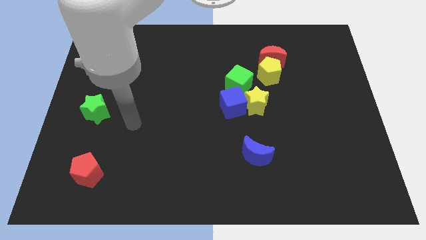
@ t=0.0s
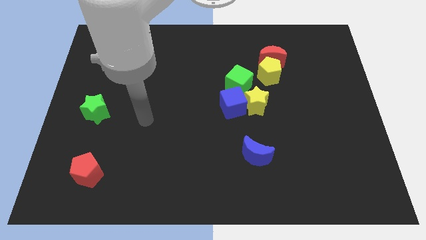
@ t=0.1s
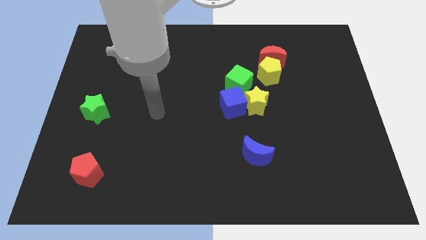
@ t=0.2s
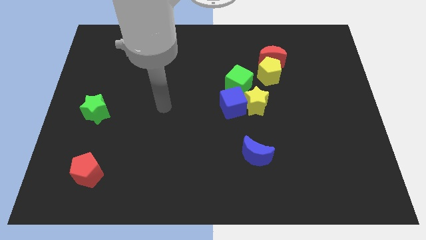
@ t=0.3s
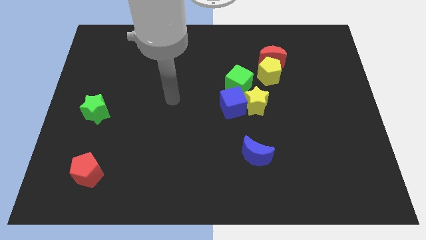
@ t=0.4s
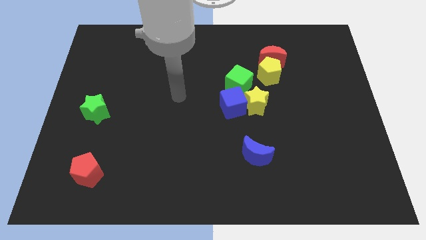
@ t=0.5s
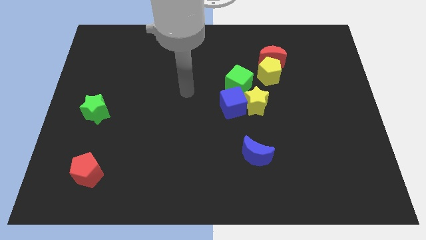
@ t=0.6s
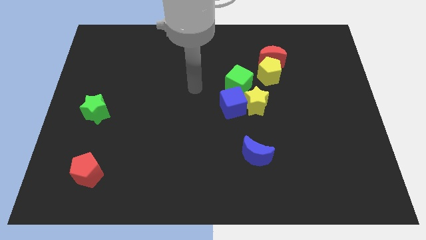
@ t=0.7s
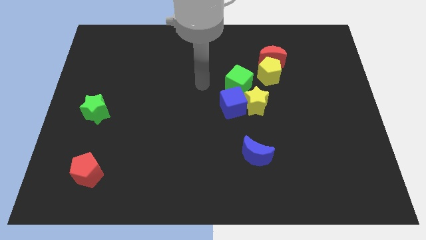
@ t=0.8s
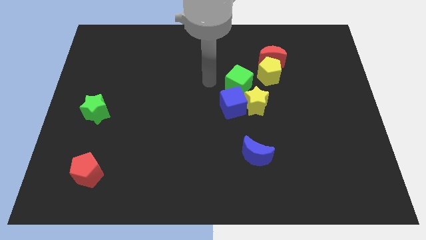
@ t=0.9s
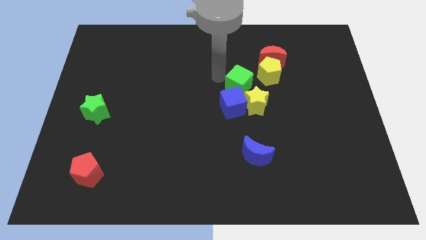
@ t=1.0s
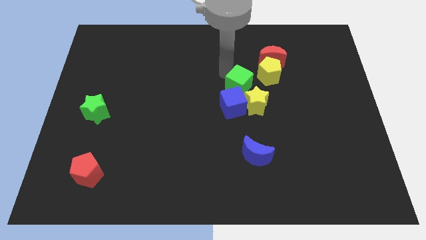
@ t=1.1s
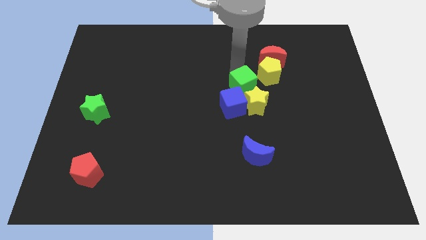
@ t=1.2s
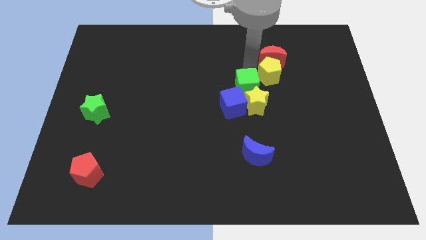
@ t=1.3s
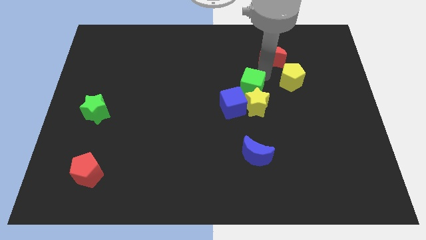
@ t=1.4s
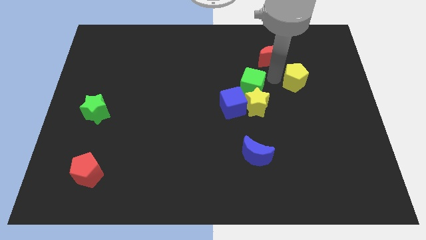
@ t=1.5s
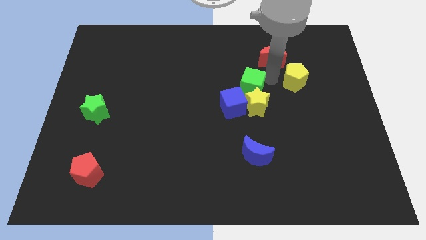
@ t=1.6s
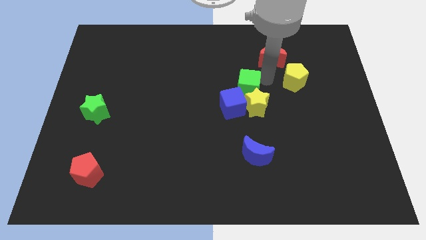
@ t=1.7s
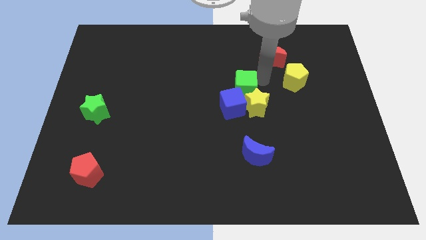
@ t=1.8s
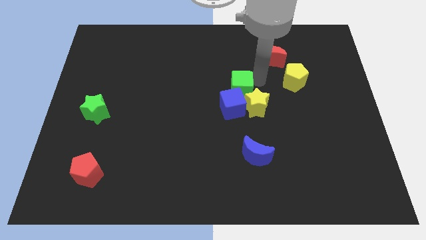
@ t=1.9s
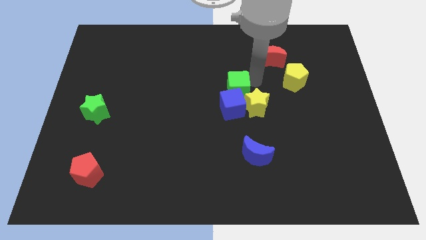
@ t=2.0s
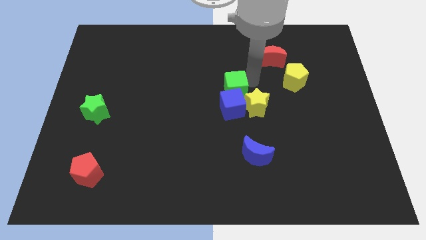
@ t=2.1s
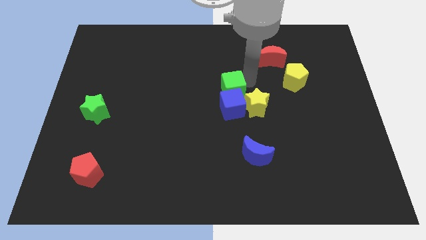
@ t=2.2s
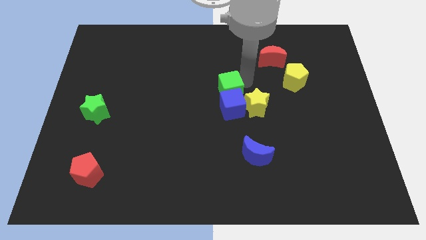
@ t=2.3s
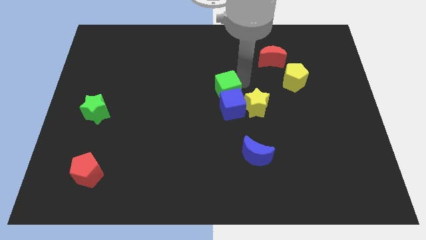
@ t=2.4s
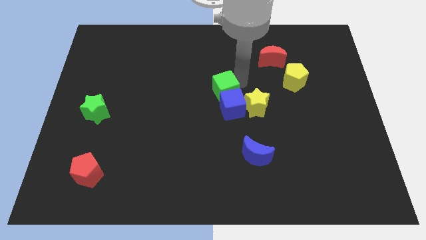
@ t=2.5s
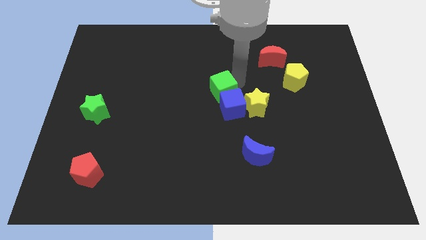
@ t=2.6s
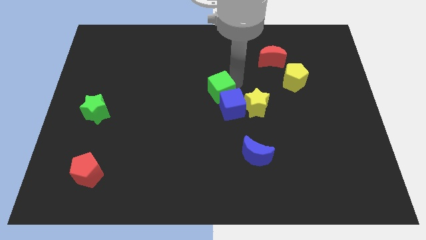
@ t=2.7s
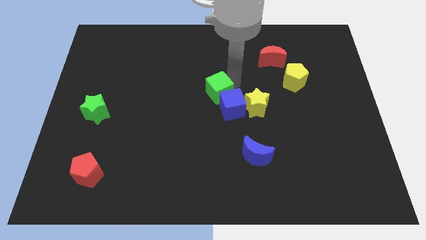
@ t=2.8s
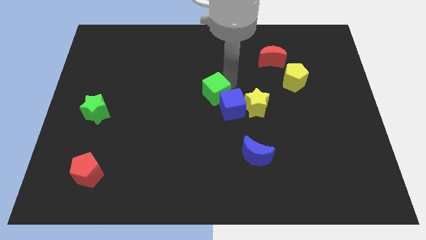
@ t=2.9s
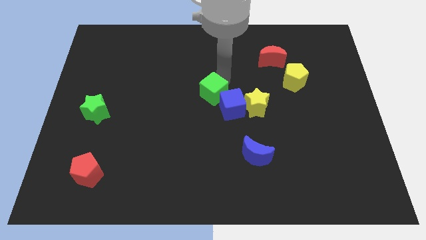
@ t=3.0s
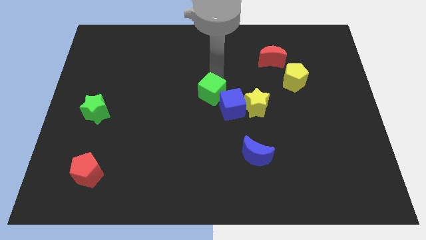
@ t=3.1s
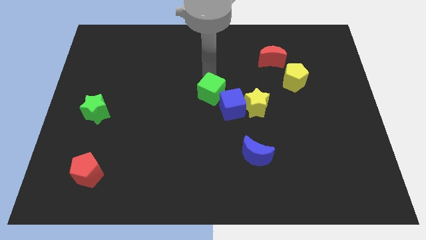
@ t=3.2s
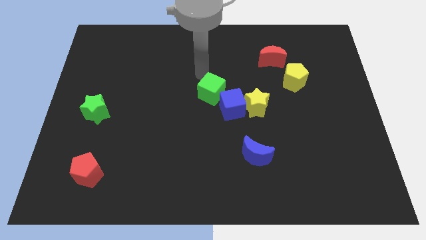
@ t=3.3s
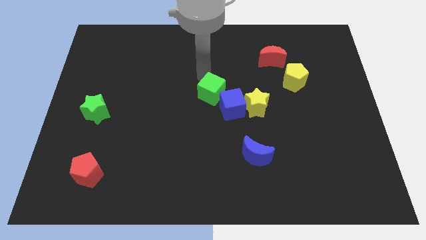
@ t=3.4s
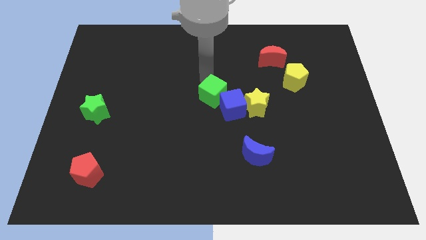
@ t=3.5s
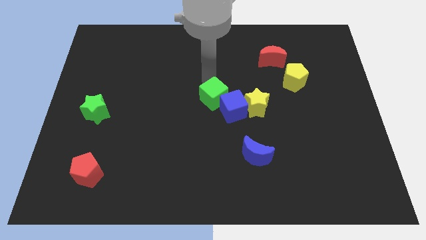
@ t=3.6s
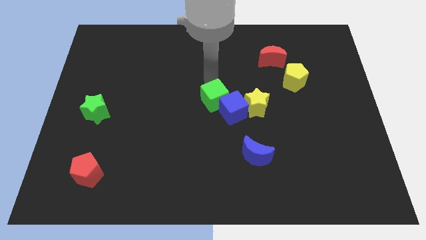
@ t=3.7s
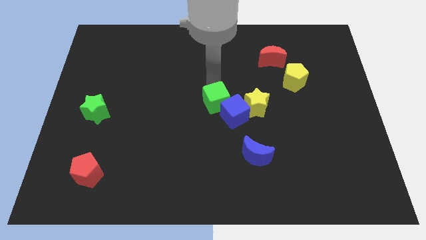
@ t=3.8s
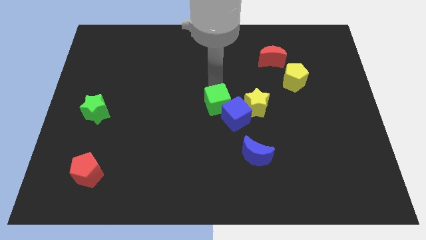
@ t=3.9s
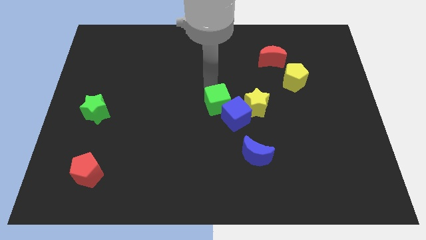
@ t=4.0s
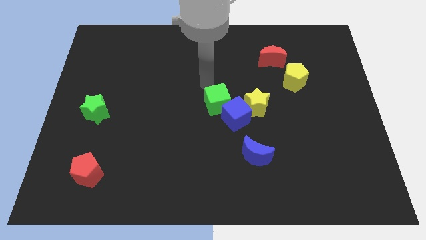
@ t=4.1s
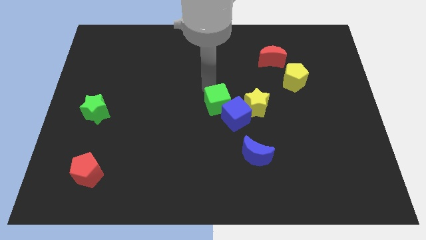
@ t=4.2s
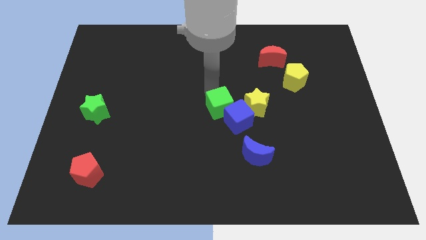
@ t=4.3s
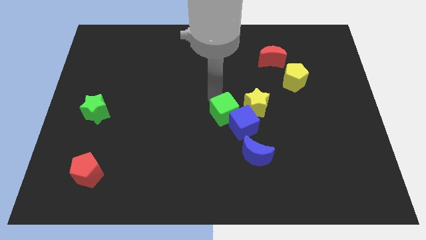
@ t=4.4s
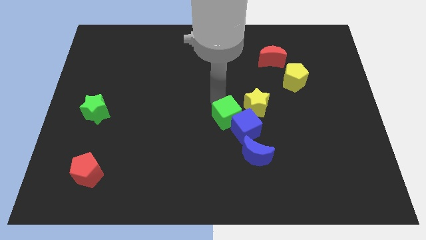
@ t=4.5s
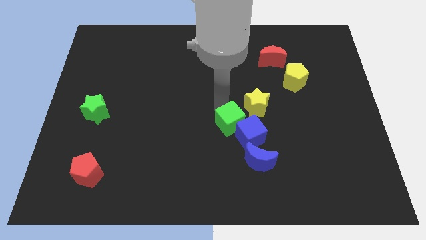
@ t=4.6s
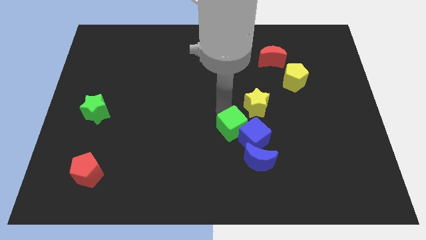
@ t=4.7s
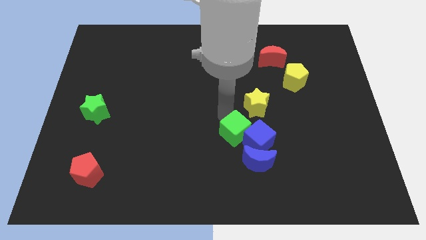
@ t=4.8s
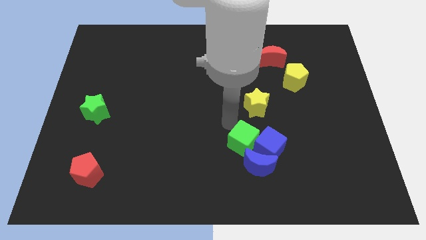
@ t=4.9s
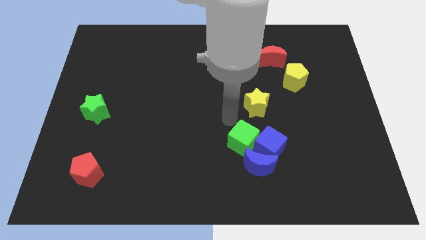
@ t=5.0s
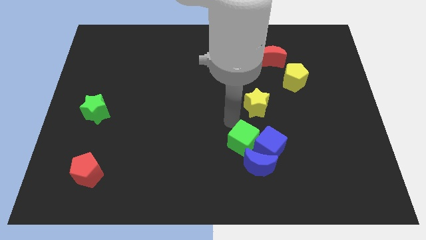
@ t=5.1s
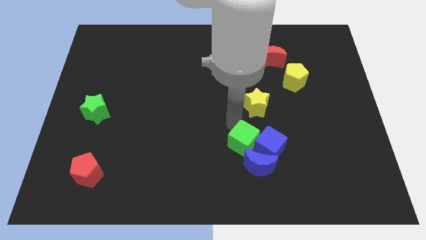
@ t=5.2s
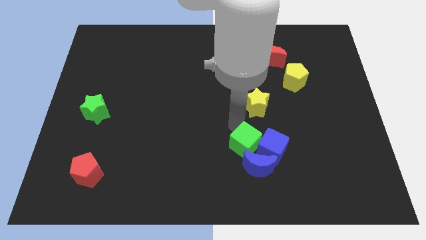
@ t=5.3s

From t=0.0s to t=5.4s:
push the green cube to the blue moon

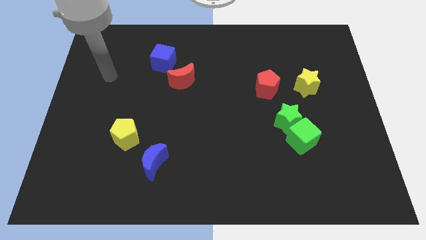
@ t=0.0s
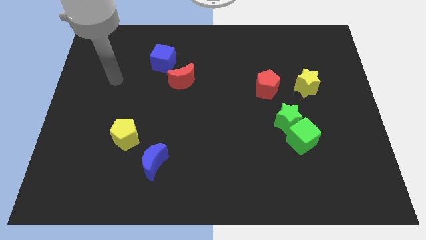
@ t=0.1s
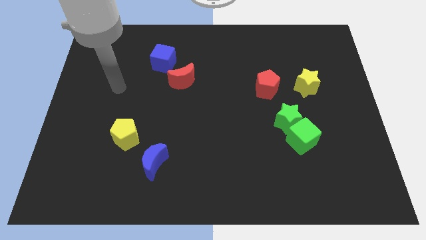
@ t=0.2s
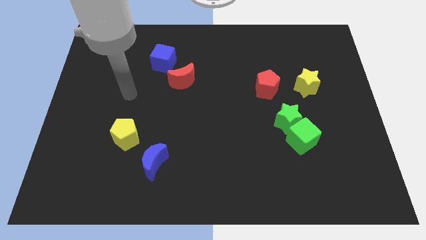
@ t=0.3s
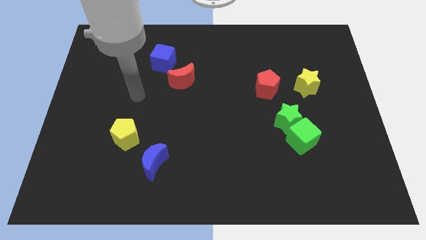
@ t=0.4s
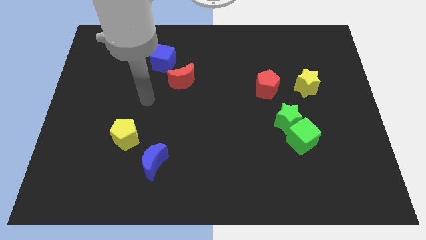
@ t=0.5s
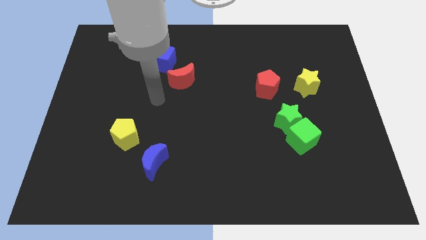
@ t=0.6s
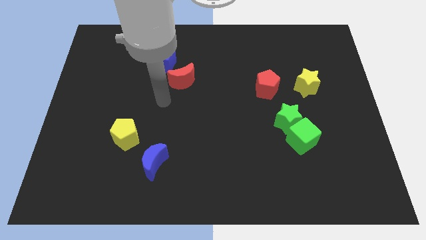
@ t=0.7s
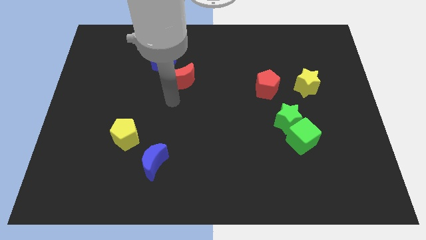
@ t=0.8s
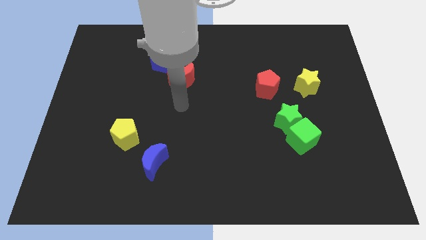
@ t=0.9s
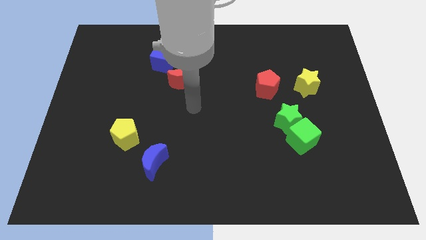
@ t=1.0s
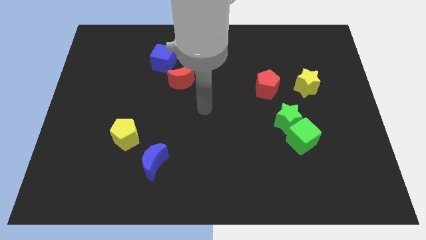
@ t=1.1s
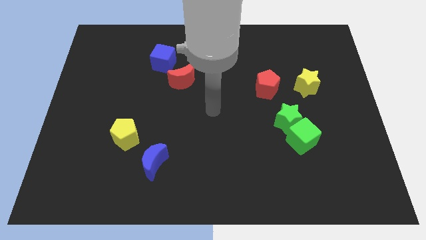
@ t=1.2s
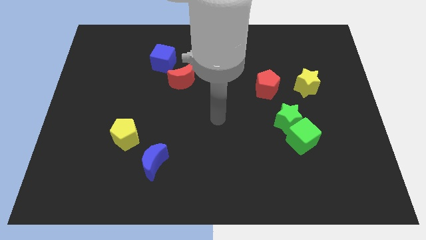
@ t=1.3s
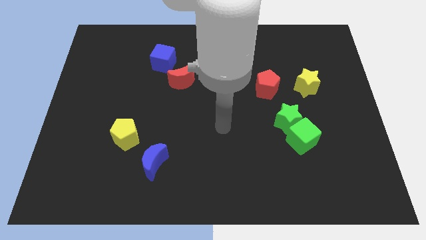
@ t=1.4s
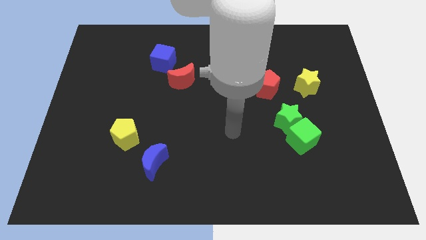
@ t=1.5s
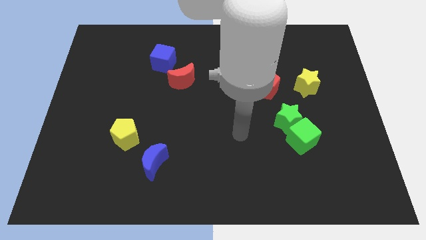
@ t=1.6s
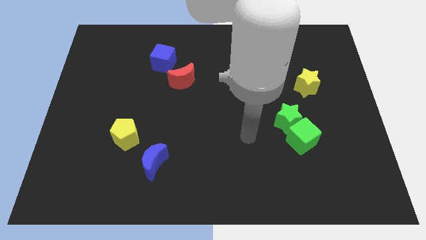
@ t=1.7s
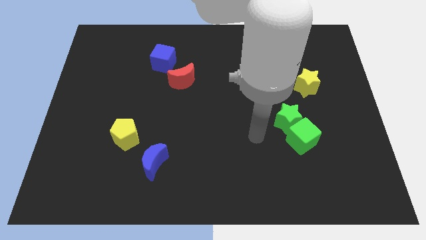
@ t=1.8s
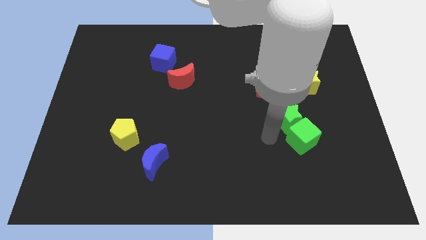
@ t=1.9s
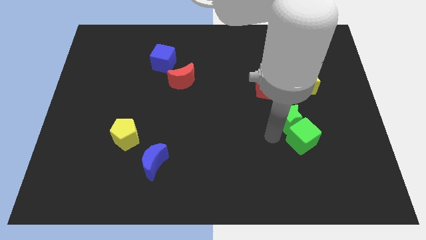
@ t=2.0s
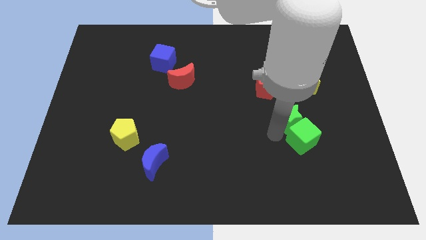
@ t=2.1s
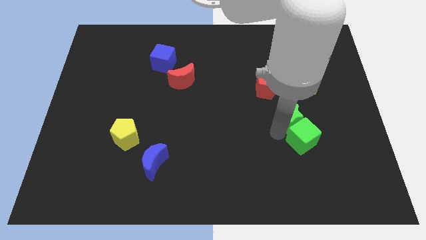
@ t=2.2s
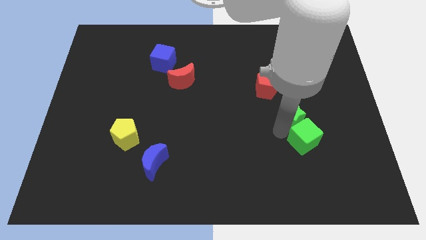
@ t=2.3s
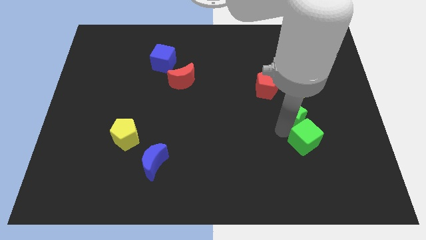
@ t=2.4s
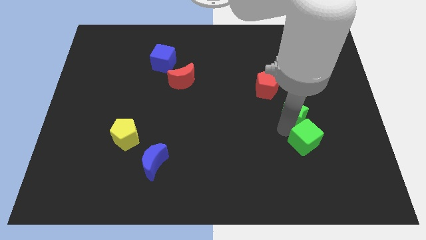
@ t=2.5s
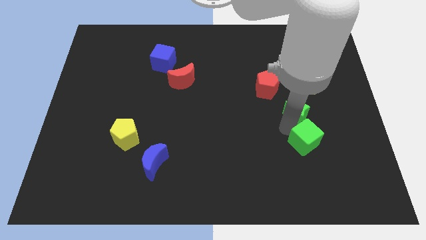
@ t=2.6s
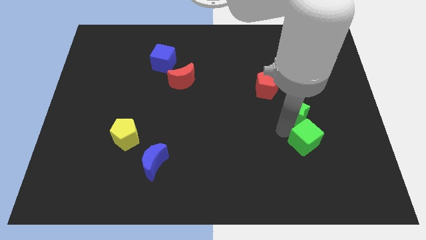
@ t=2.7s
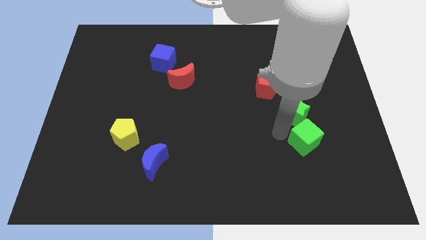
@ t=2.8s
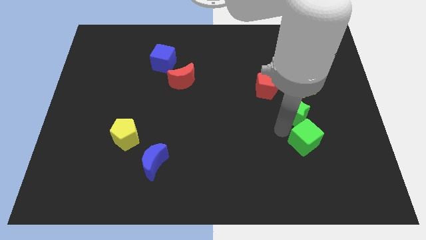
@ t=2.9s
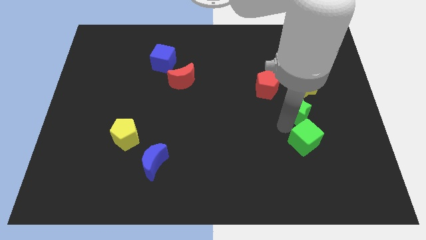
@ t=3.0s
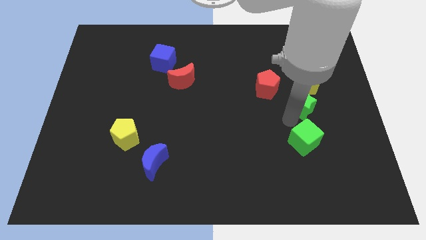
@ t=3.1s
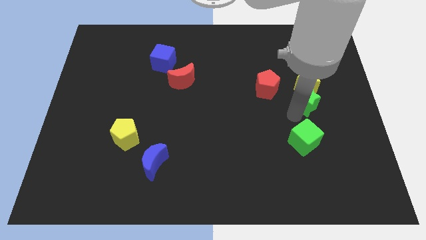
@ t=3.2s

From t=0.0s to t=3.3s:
push the green star next to the yellow star
